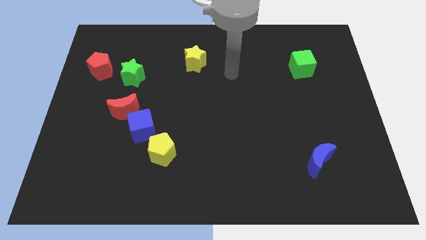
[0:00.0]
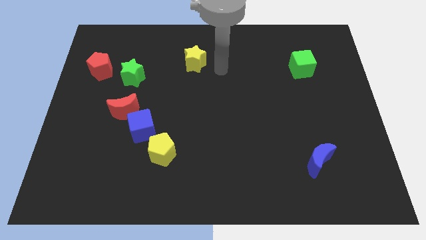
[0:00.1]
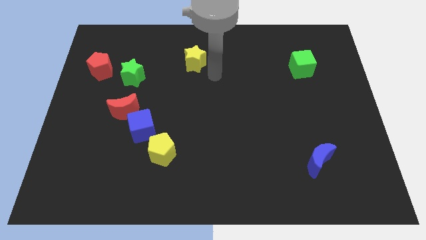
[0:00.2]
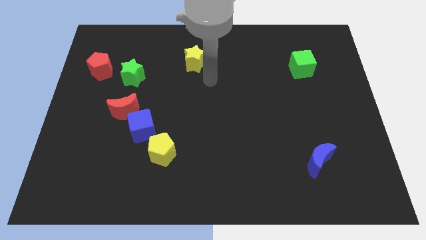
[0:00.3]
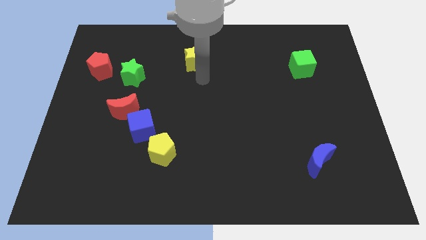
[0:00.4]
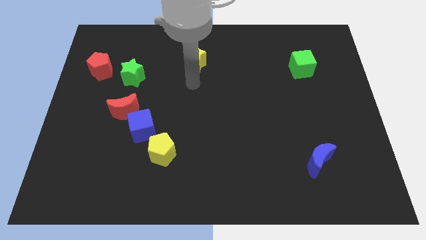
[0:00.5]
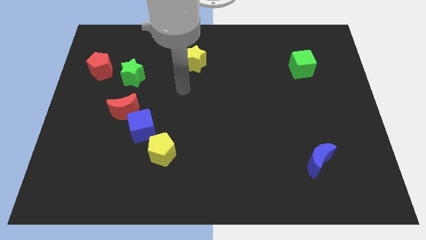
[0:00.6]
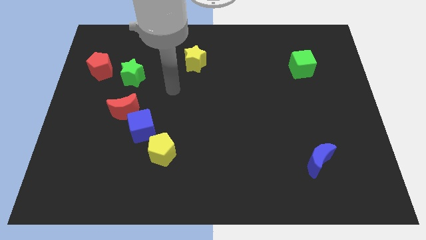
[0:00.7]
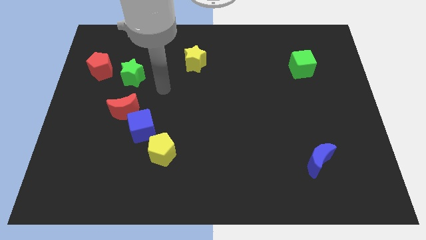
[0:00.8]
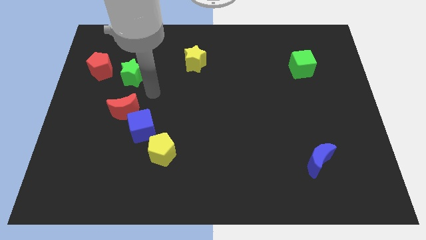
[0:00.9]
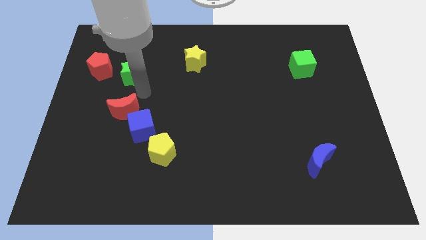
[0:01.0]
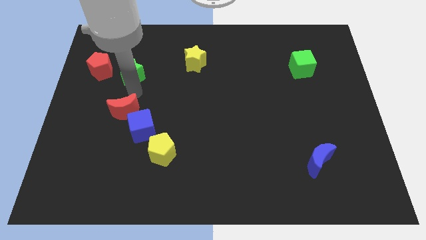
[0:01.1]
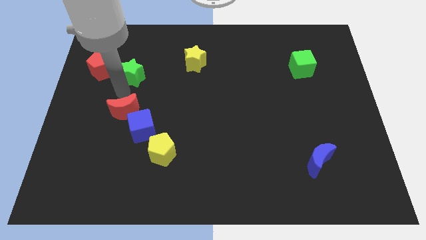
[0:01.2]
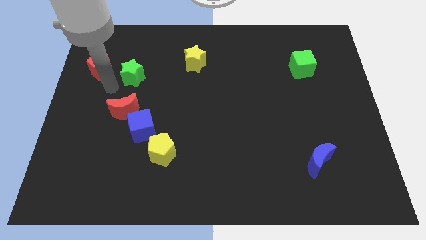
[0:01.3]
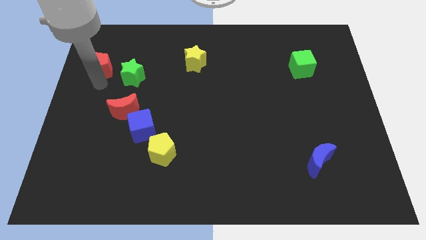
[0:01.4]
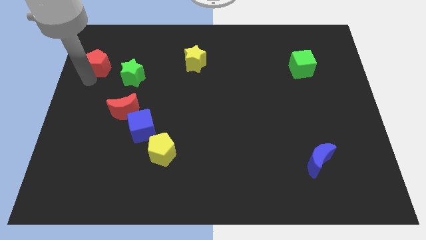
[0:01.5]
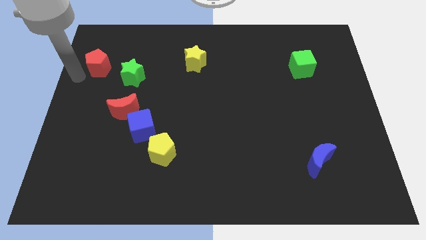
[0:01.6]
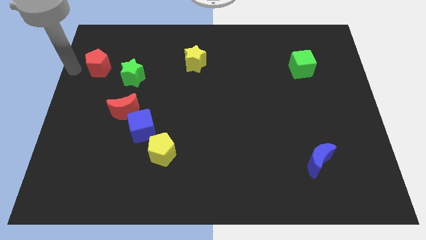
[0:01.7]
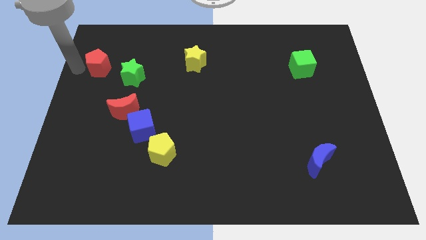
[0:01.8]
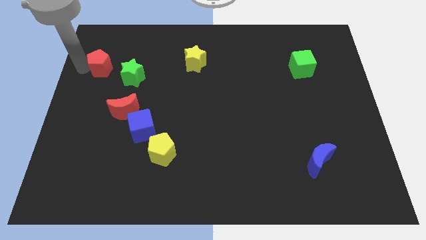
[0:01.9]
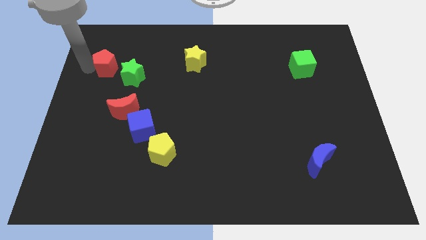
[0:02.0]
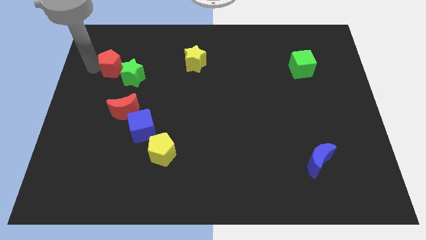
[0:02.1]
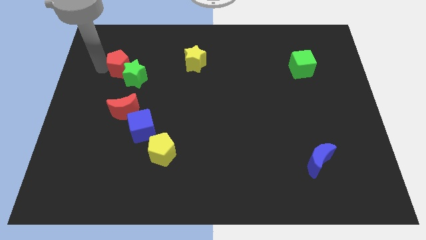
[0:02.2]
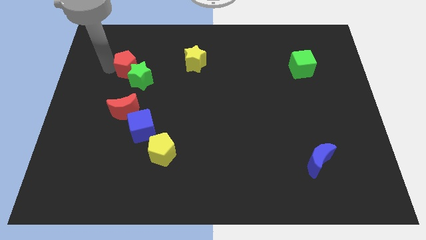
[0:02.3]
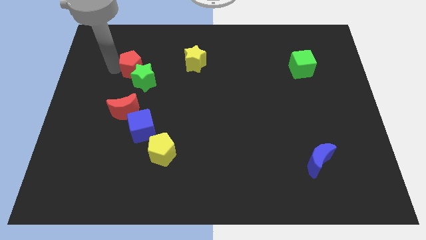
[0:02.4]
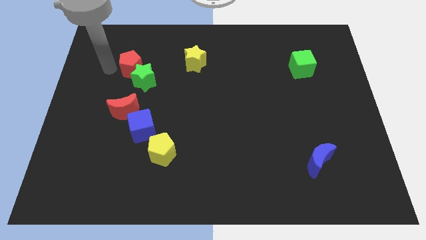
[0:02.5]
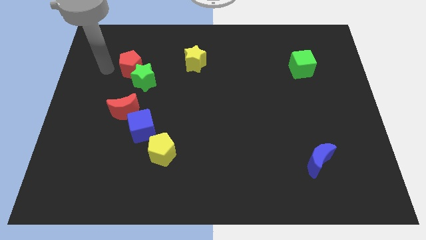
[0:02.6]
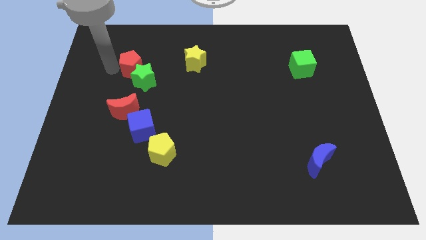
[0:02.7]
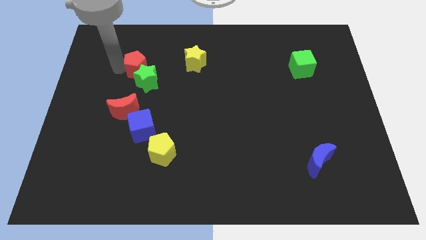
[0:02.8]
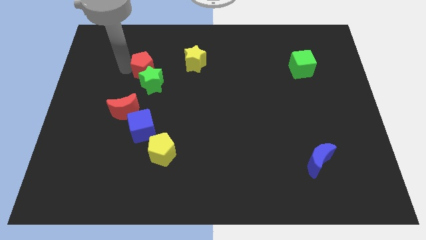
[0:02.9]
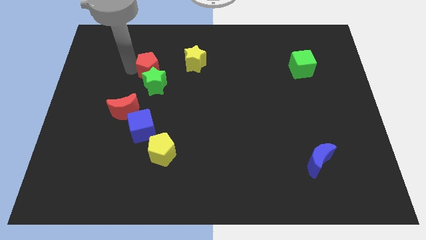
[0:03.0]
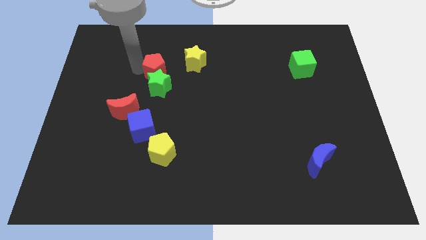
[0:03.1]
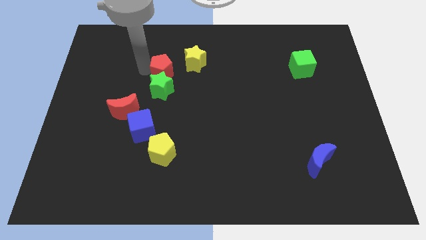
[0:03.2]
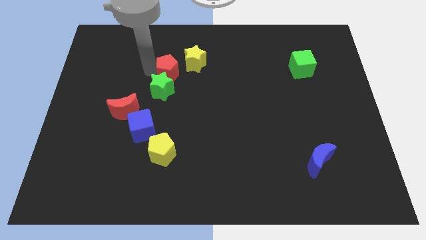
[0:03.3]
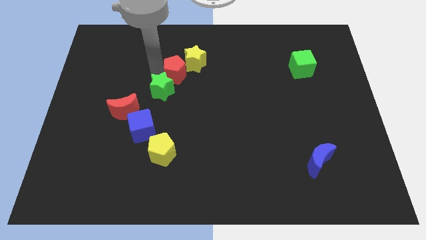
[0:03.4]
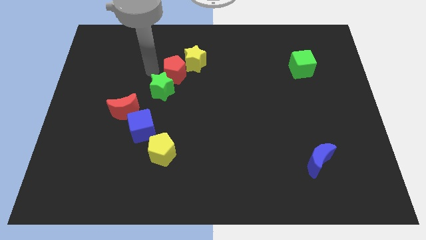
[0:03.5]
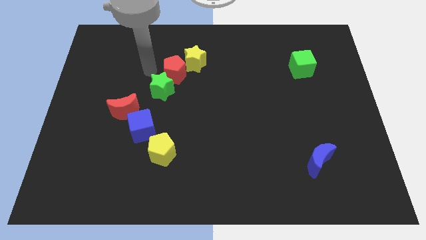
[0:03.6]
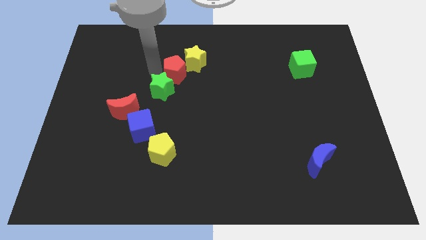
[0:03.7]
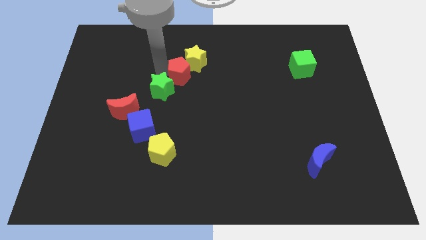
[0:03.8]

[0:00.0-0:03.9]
push the red pentagon right

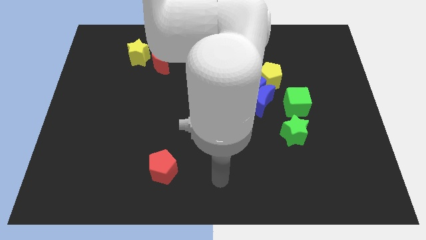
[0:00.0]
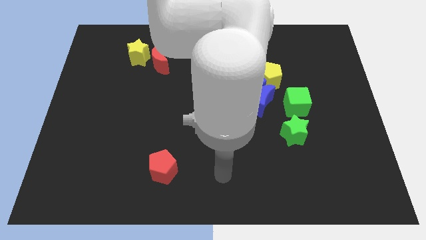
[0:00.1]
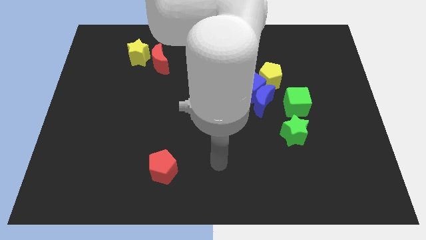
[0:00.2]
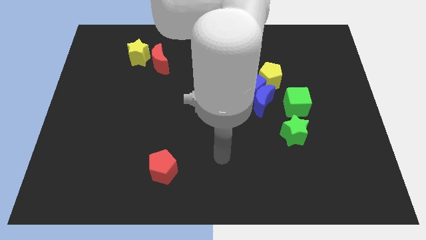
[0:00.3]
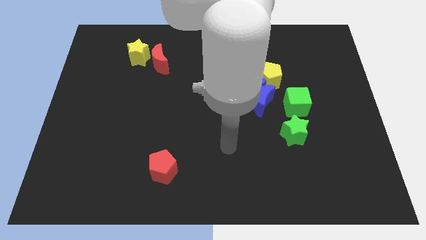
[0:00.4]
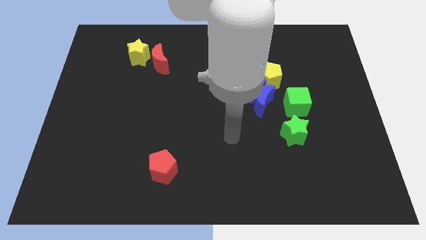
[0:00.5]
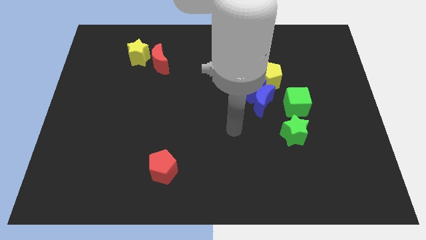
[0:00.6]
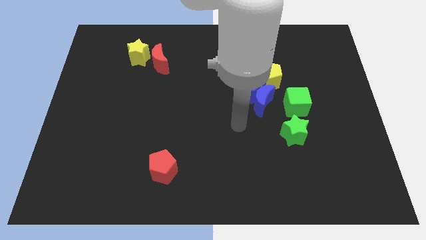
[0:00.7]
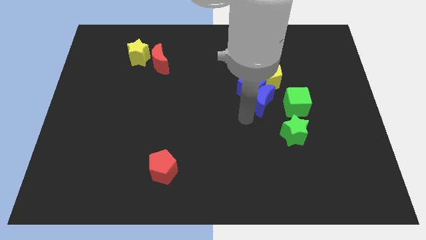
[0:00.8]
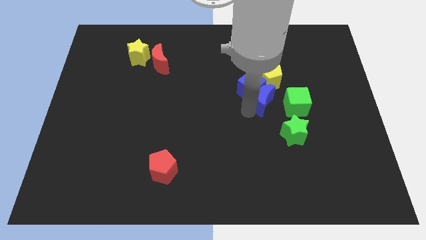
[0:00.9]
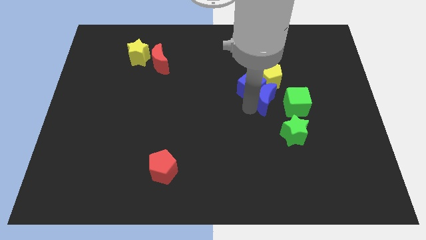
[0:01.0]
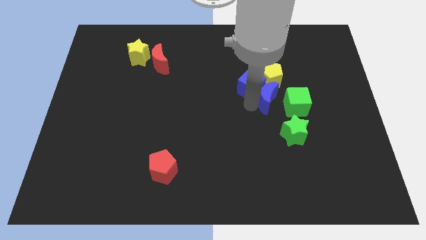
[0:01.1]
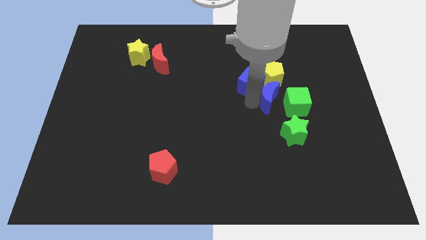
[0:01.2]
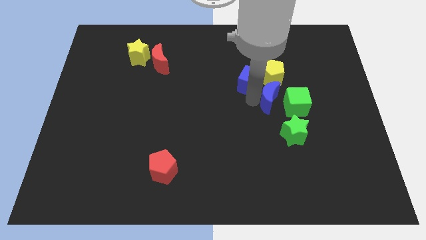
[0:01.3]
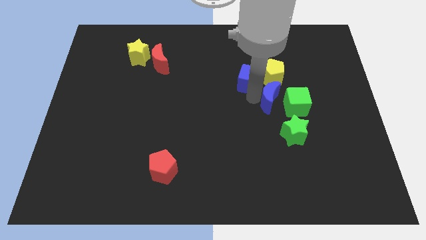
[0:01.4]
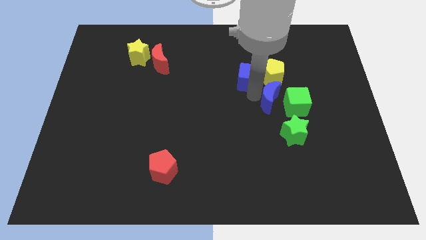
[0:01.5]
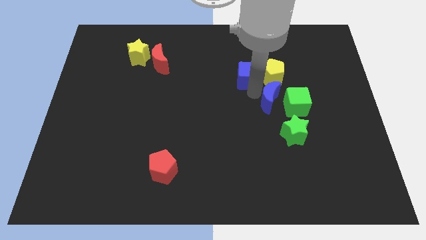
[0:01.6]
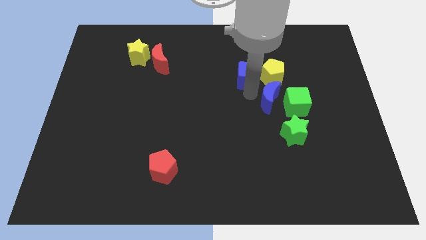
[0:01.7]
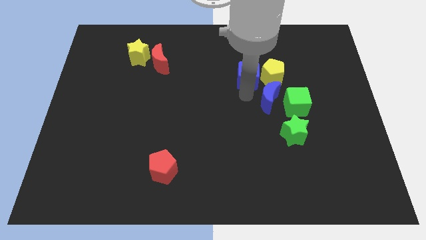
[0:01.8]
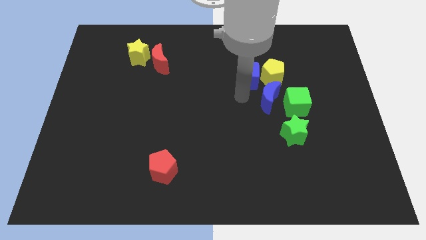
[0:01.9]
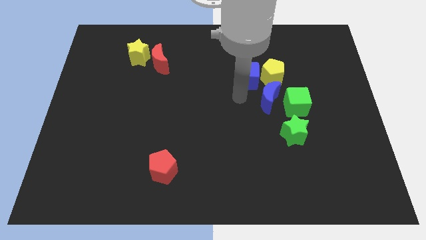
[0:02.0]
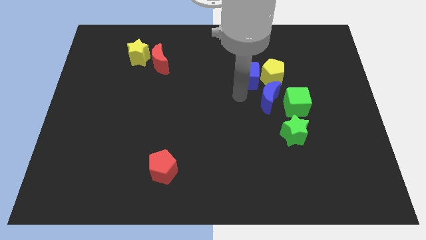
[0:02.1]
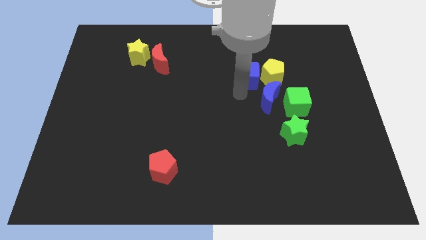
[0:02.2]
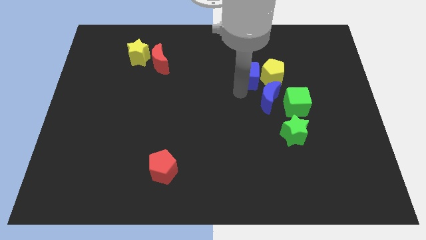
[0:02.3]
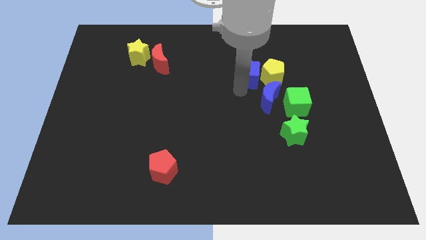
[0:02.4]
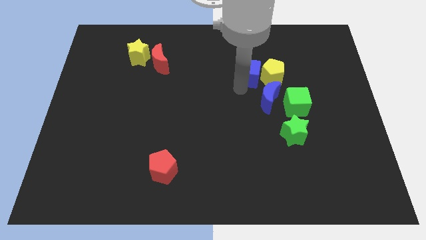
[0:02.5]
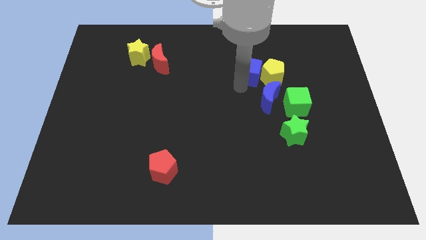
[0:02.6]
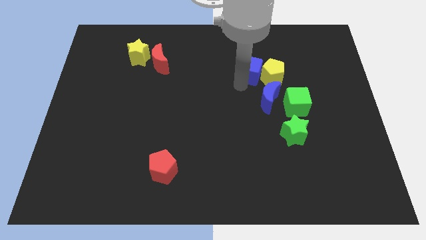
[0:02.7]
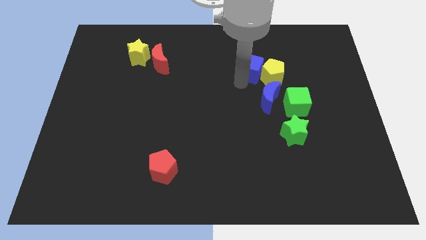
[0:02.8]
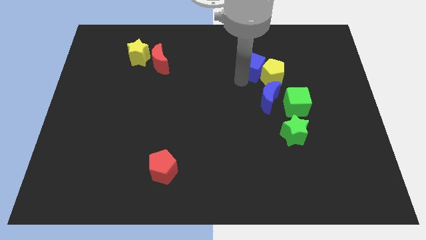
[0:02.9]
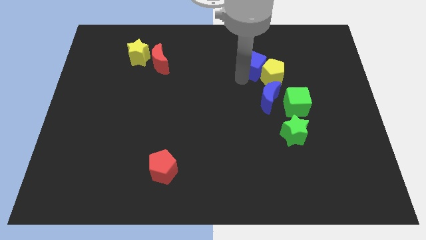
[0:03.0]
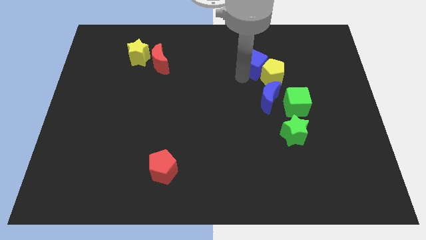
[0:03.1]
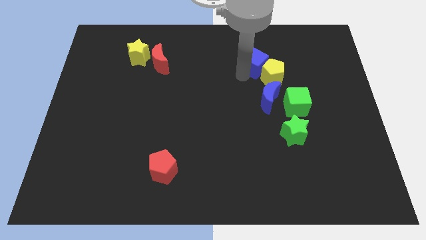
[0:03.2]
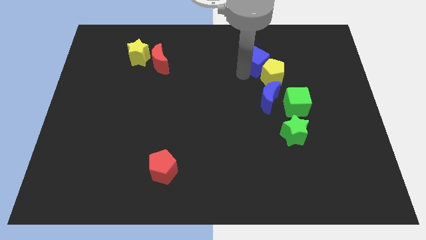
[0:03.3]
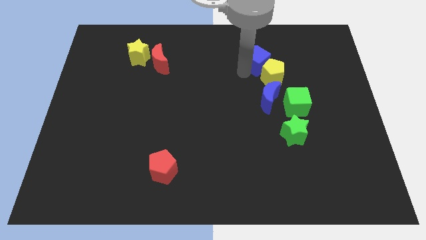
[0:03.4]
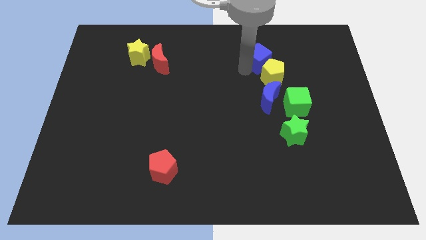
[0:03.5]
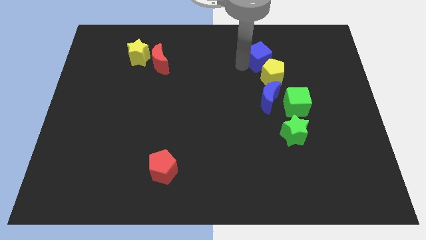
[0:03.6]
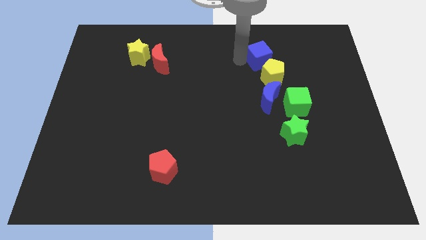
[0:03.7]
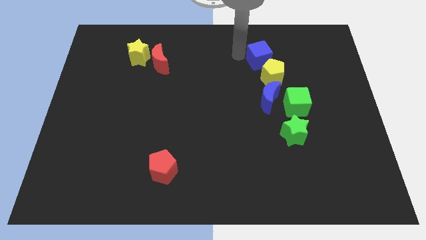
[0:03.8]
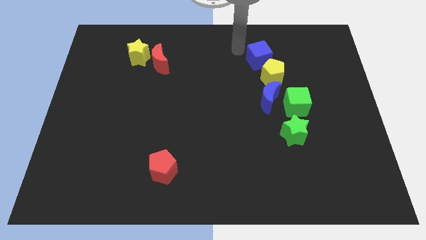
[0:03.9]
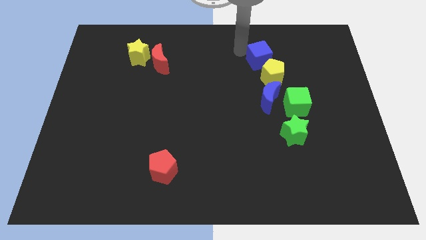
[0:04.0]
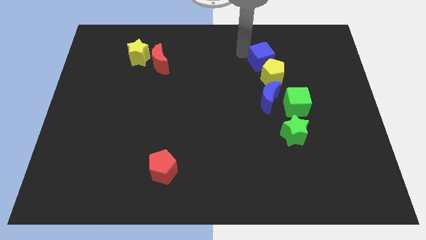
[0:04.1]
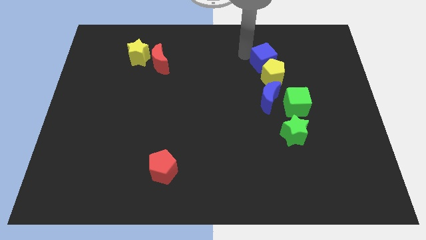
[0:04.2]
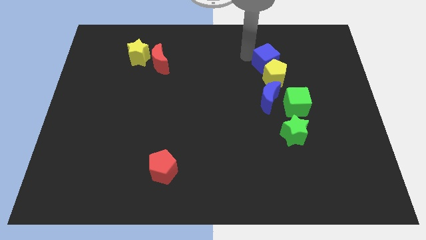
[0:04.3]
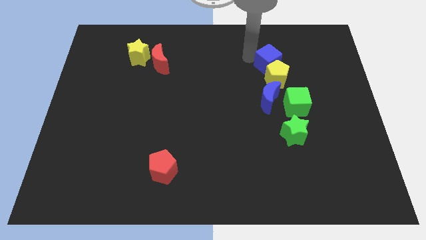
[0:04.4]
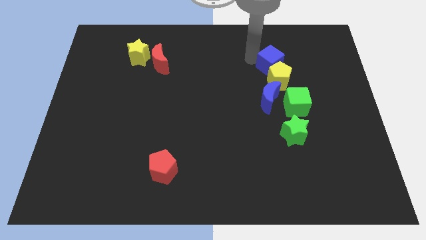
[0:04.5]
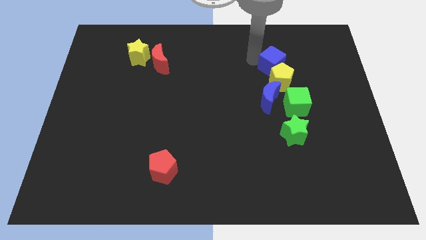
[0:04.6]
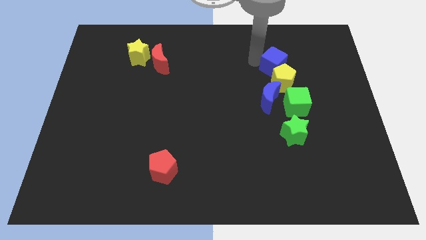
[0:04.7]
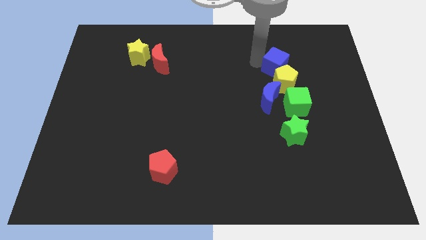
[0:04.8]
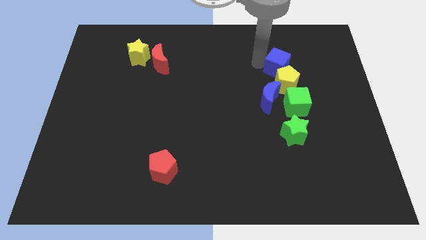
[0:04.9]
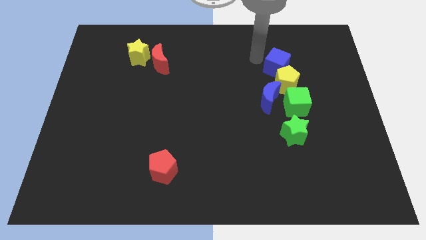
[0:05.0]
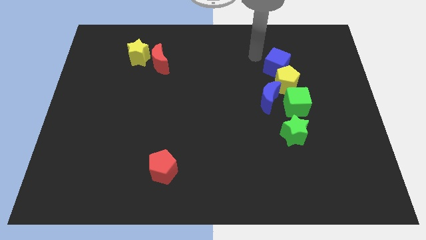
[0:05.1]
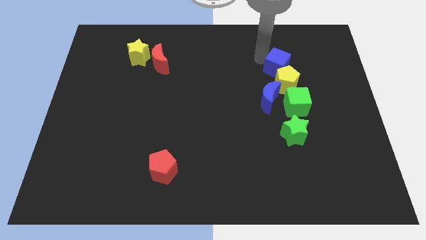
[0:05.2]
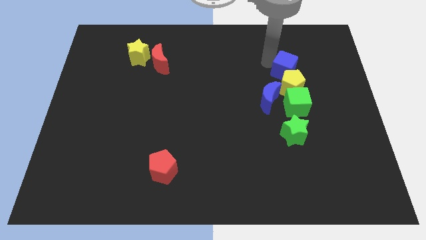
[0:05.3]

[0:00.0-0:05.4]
slide the blue cube a little to the right
